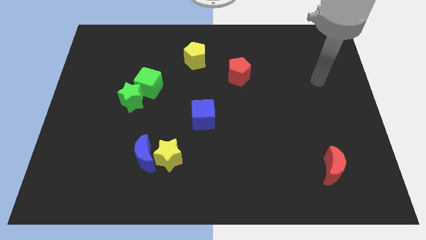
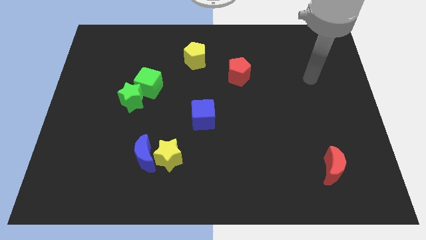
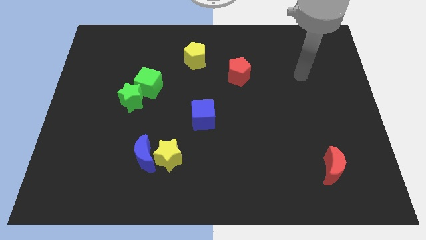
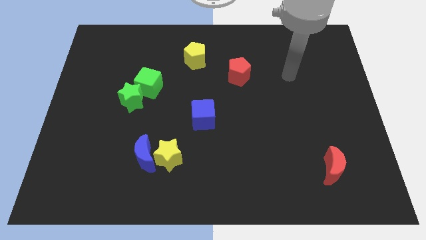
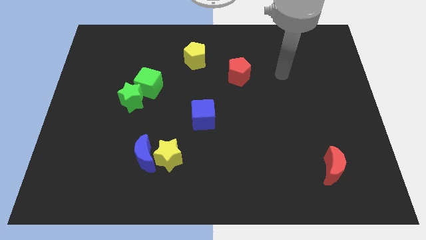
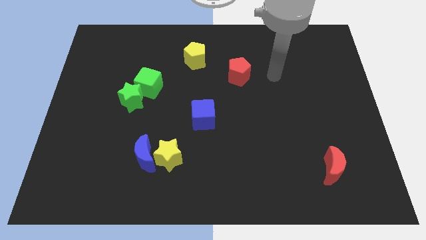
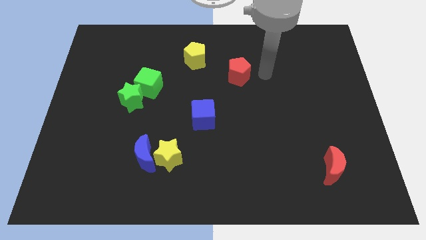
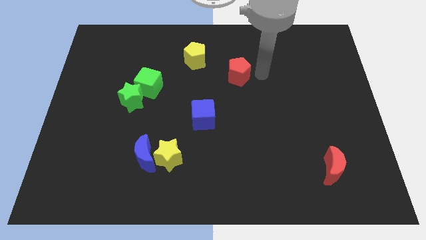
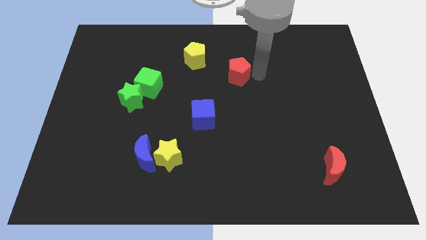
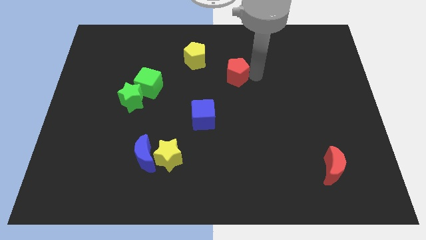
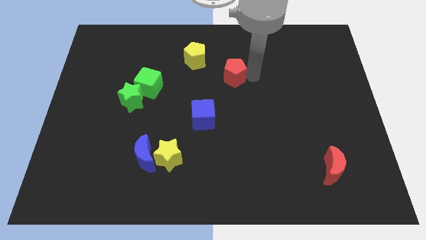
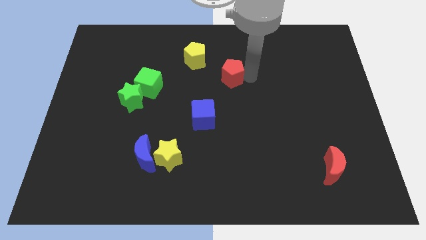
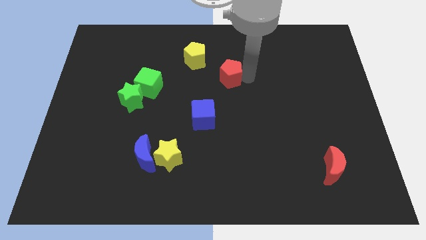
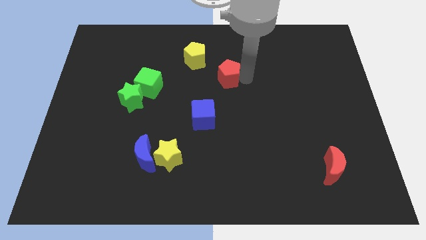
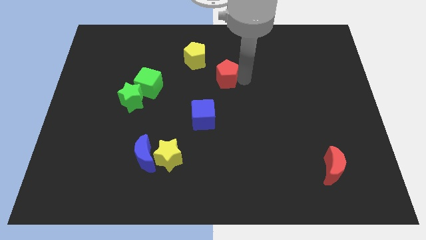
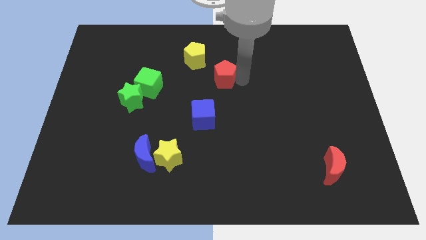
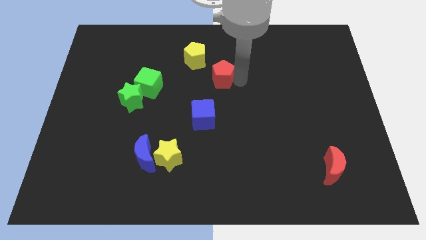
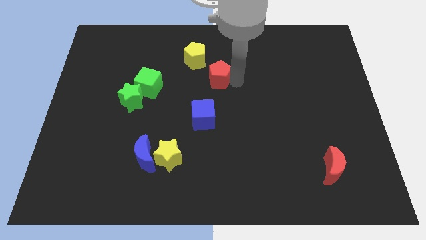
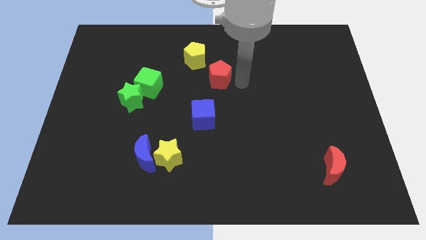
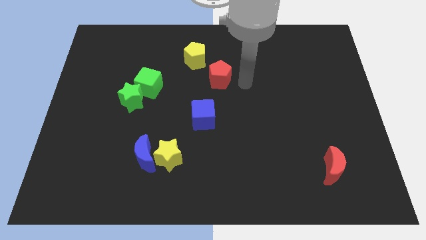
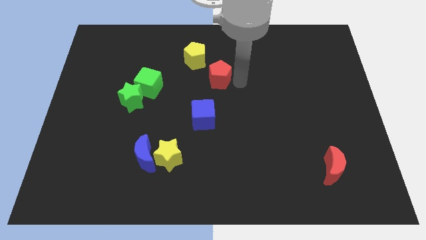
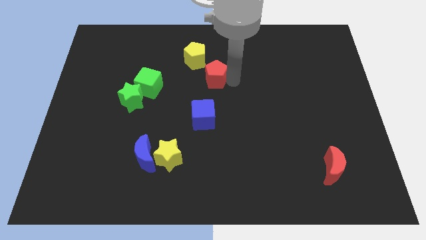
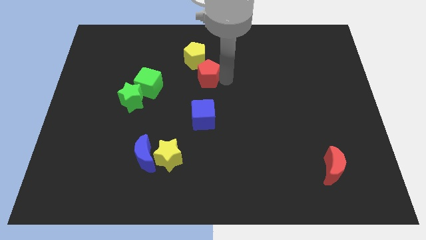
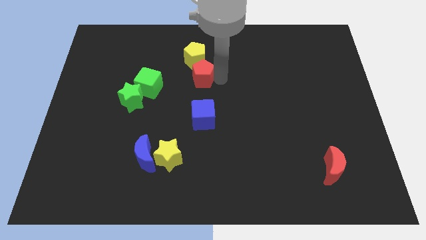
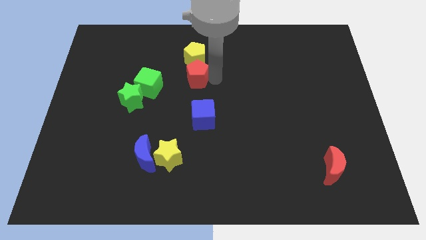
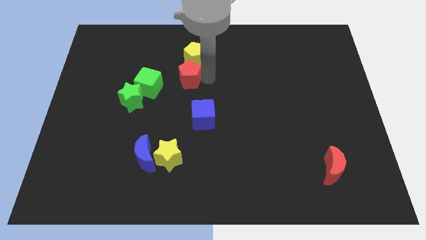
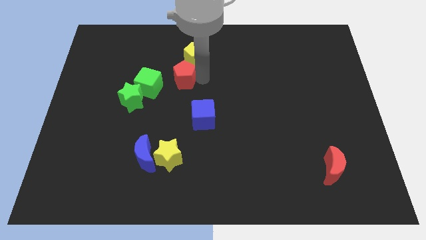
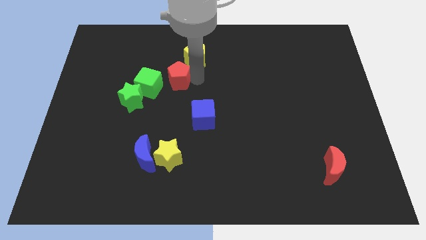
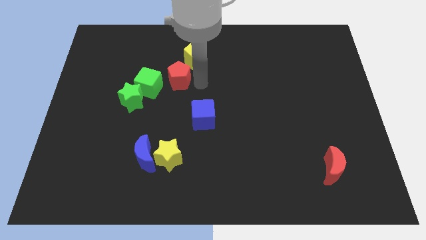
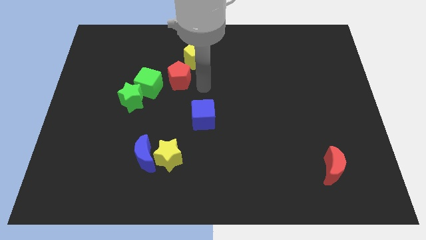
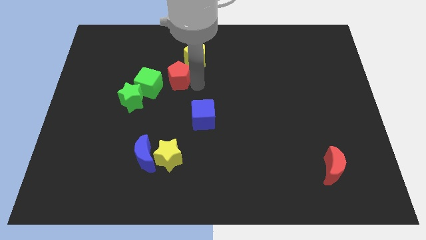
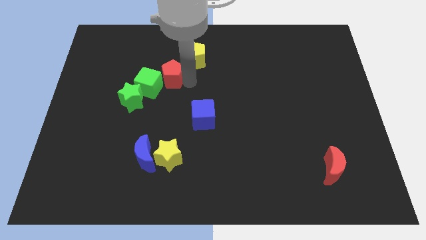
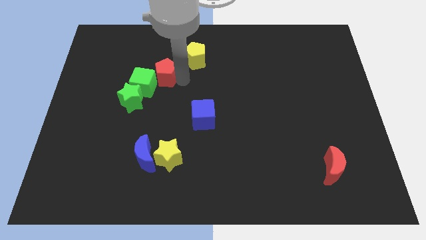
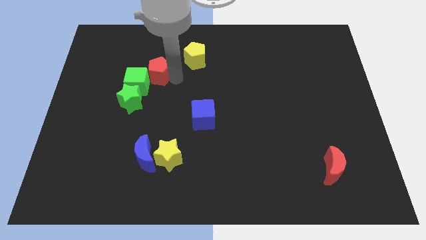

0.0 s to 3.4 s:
push the red pentagon left

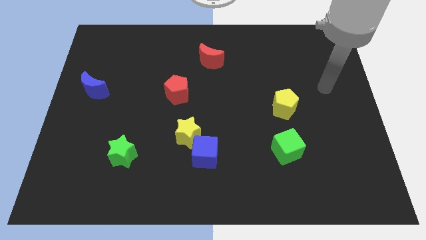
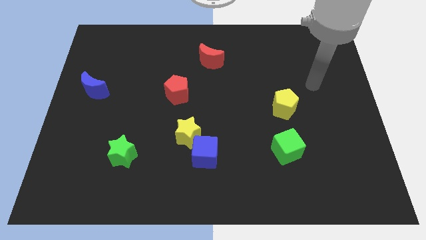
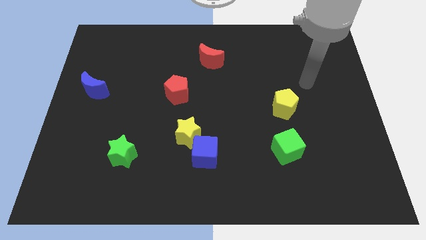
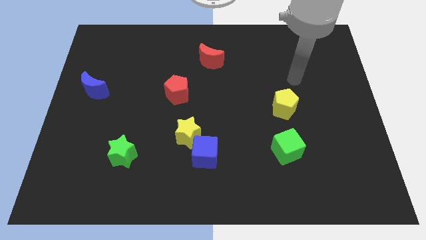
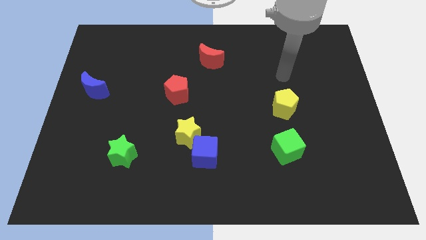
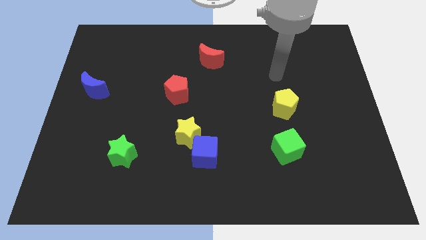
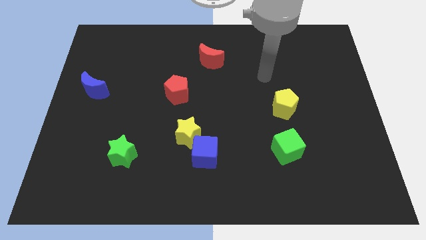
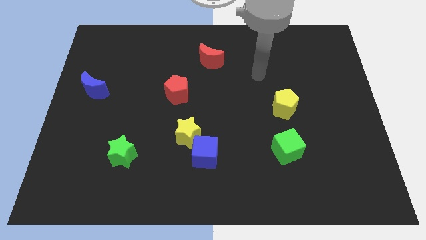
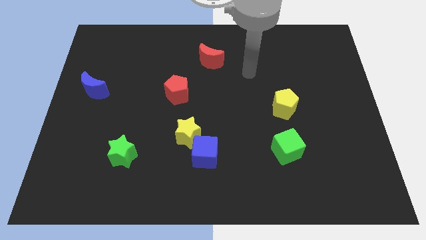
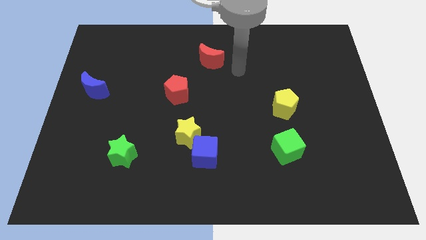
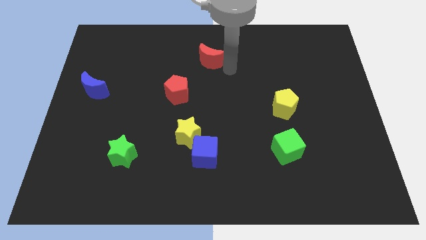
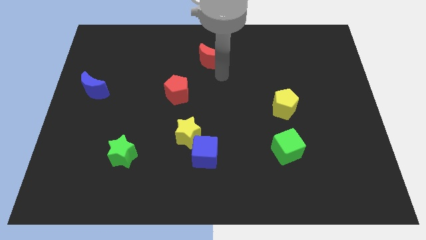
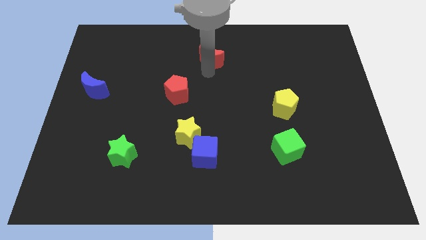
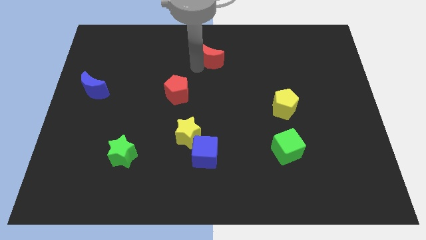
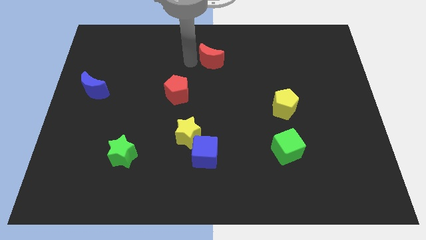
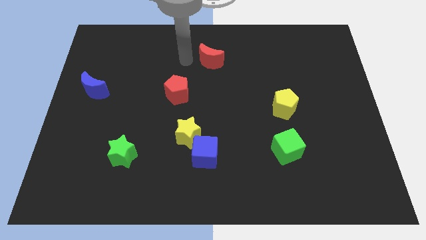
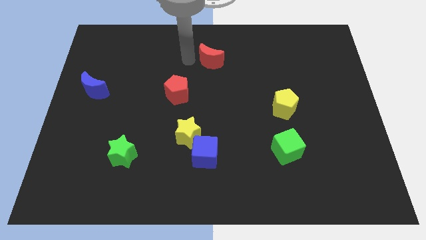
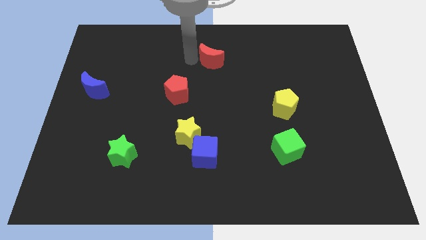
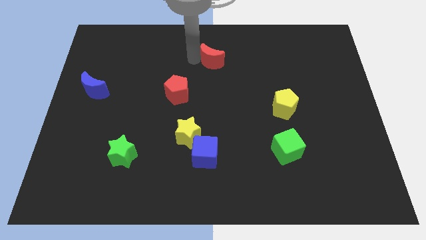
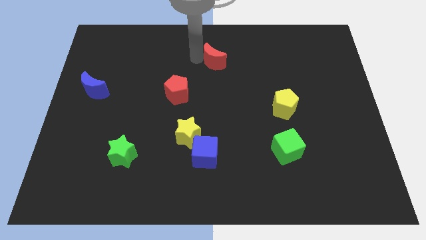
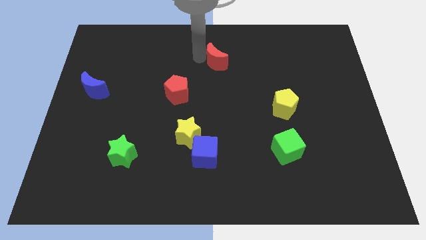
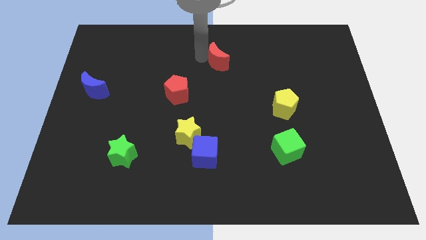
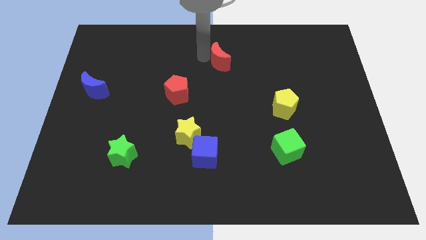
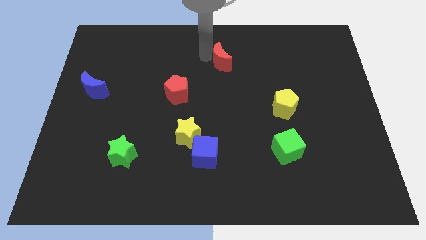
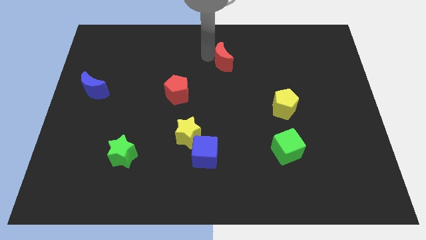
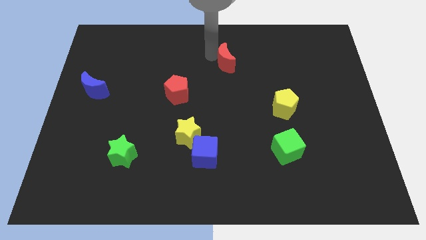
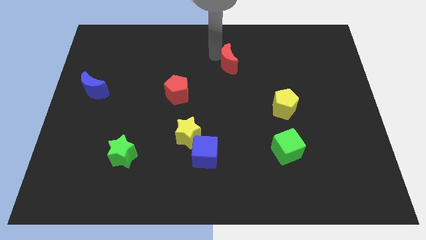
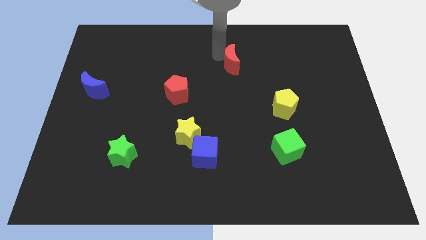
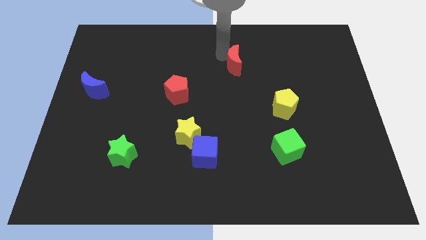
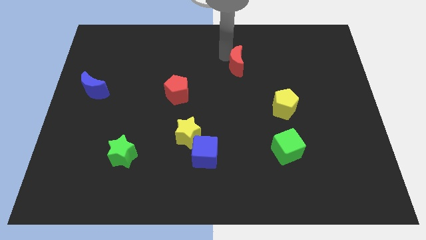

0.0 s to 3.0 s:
push the red moon a little right

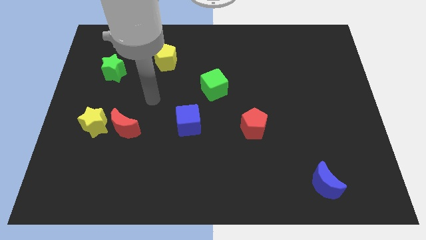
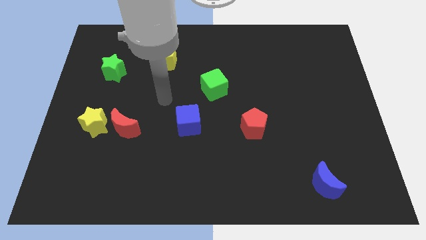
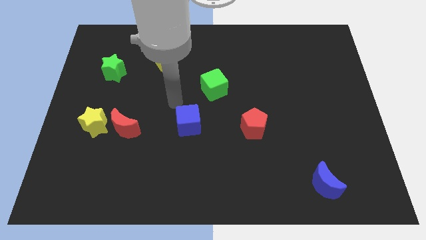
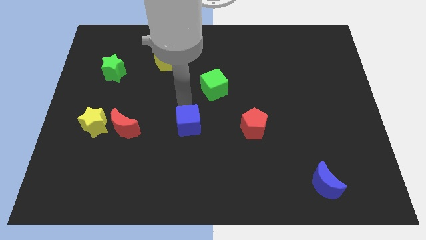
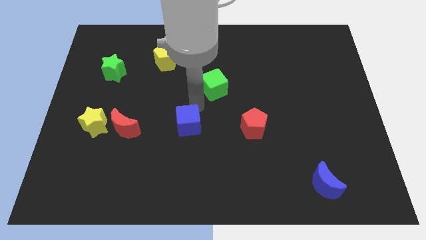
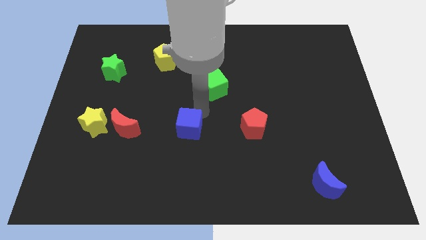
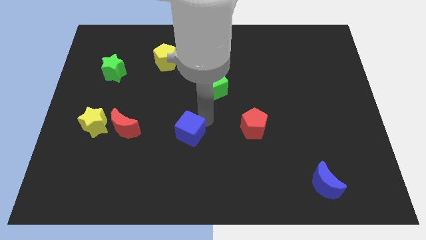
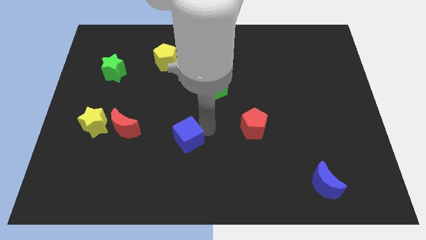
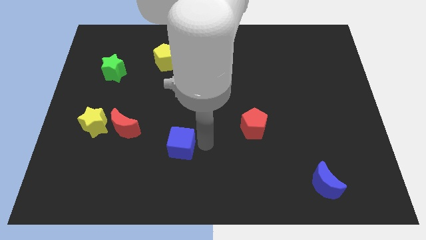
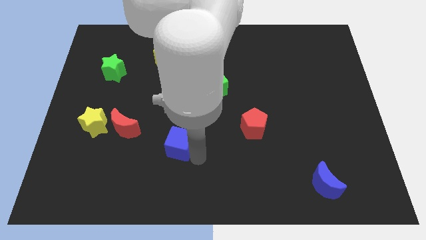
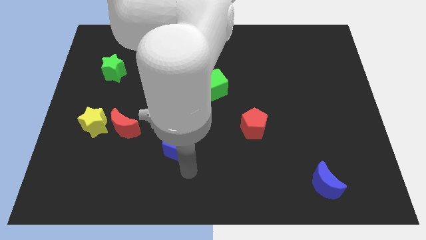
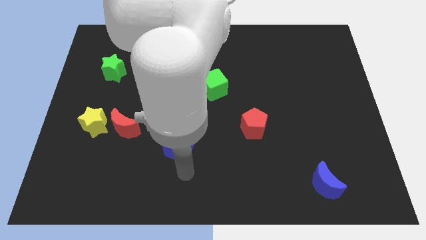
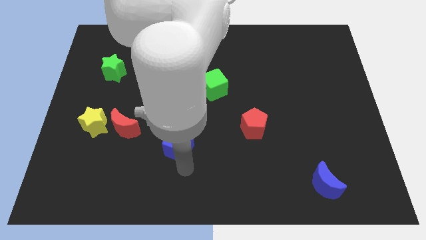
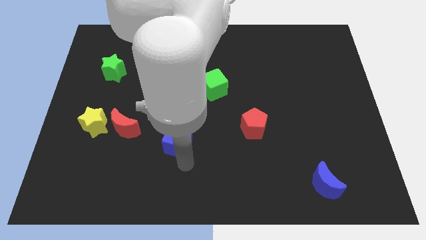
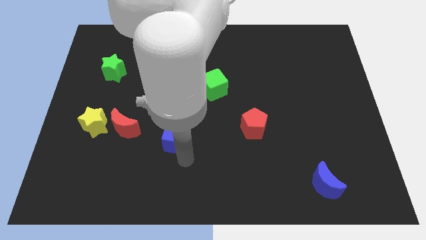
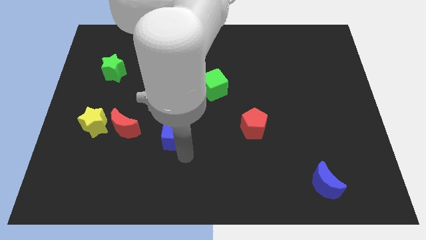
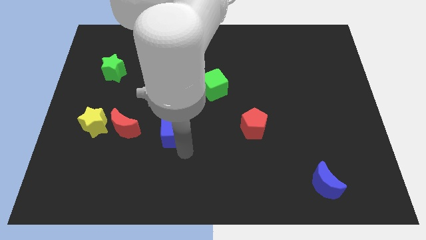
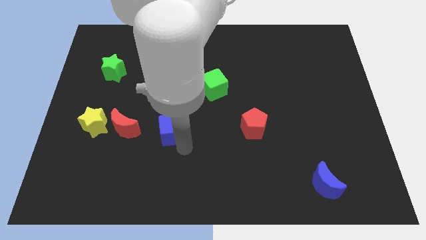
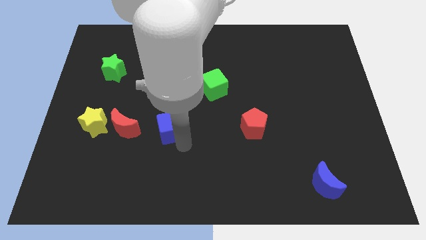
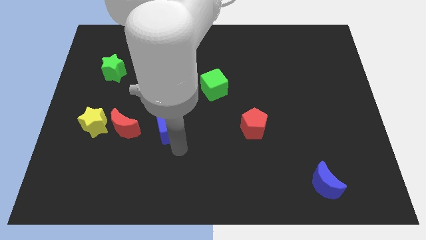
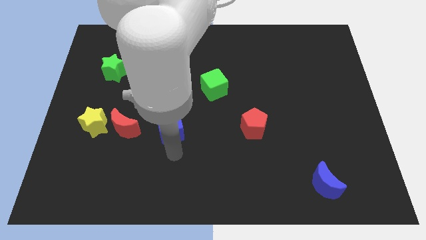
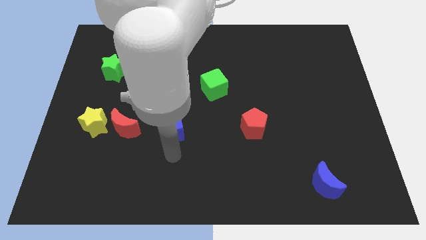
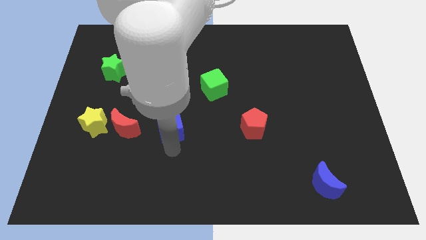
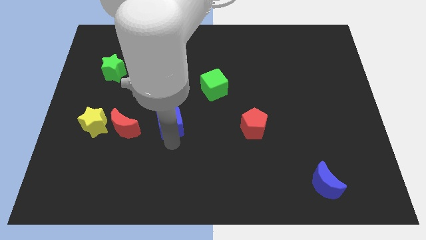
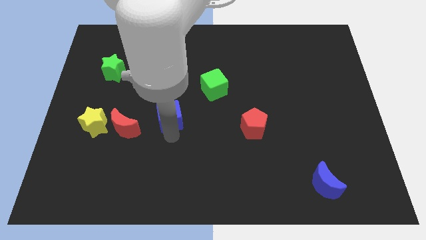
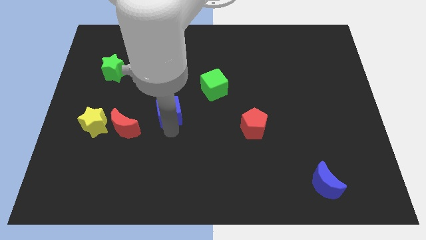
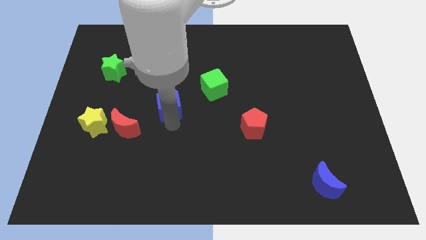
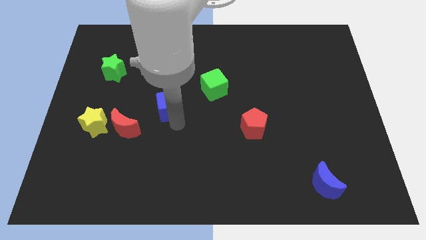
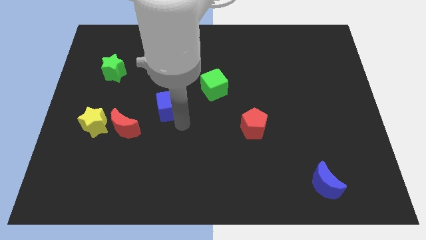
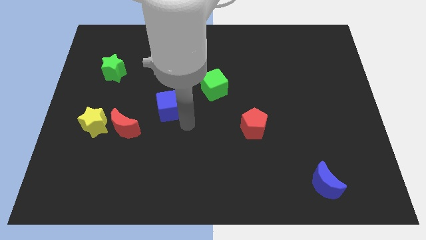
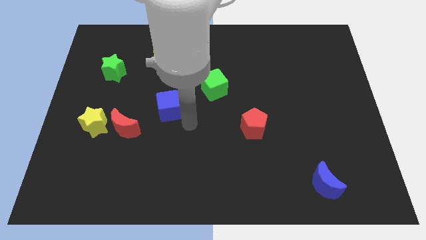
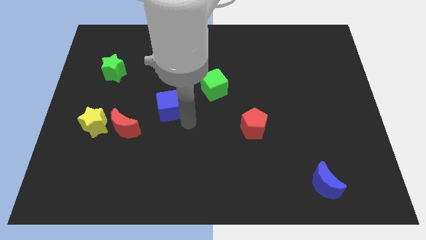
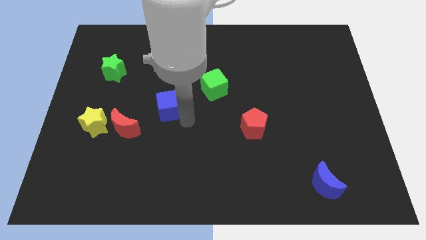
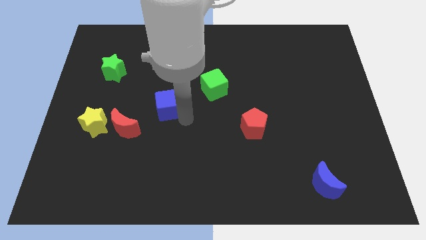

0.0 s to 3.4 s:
slide the blue cube up and then left a bit
